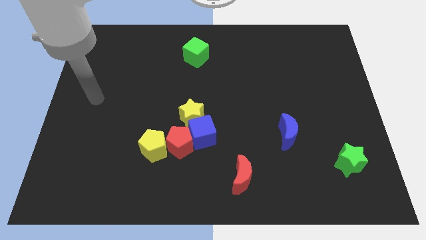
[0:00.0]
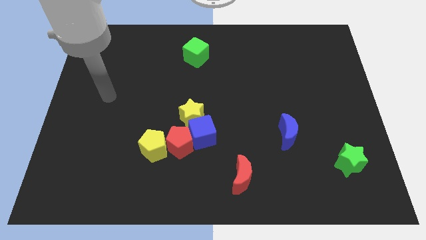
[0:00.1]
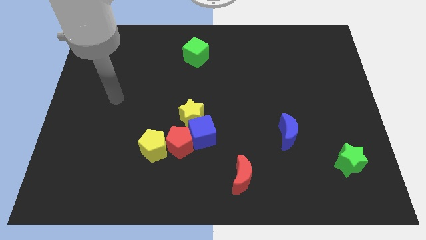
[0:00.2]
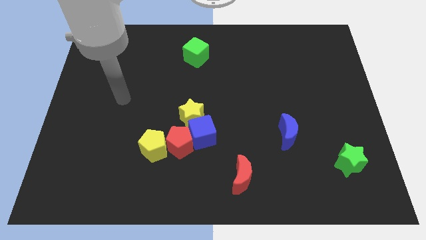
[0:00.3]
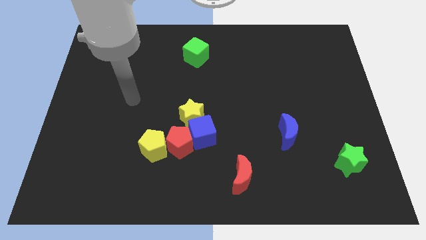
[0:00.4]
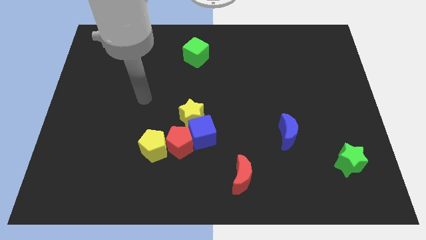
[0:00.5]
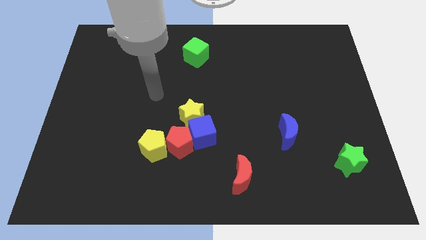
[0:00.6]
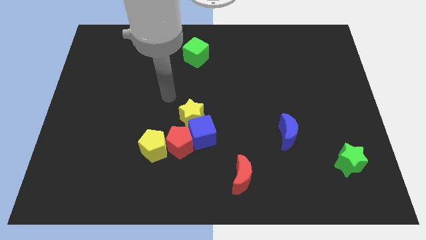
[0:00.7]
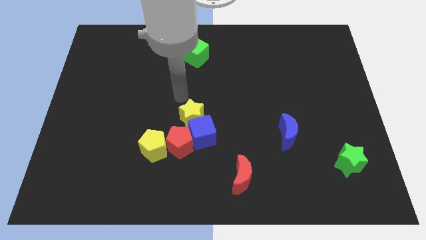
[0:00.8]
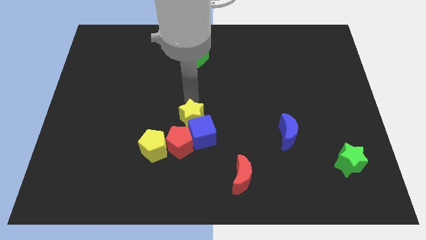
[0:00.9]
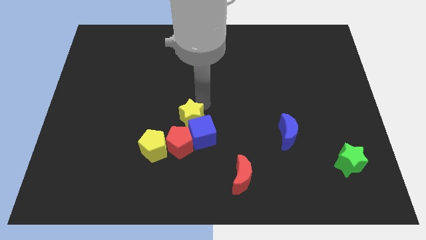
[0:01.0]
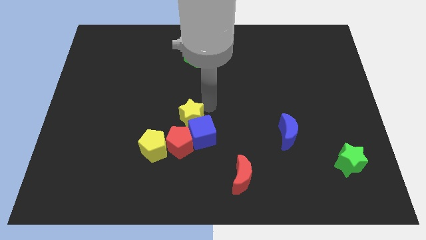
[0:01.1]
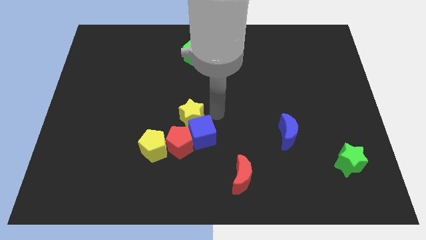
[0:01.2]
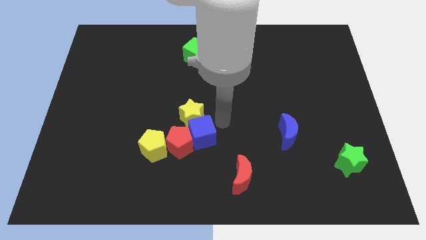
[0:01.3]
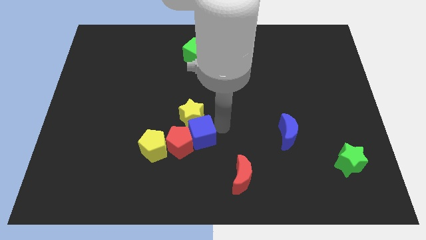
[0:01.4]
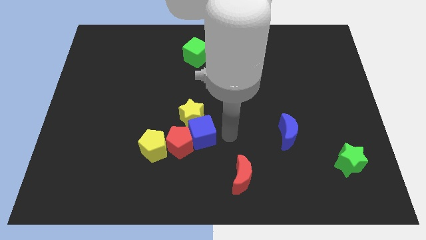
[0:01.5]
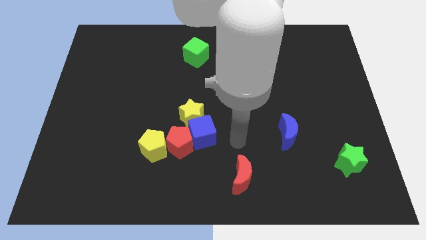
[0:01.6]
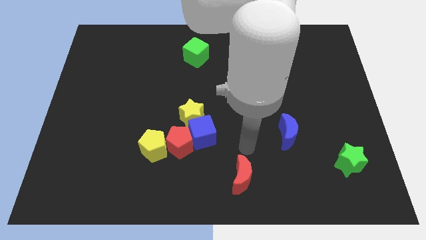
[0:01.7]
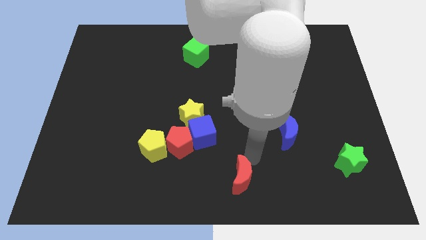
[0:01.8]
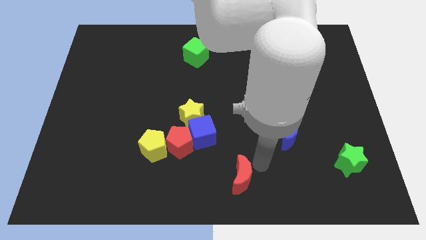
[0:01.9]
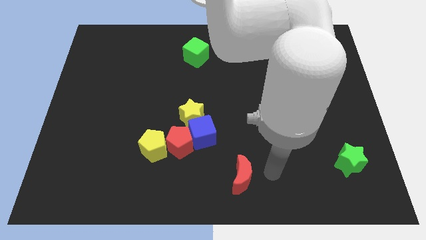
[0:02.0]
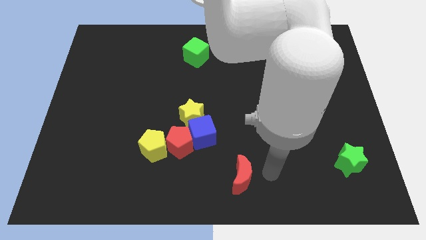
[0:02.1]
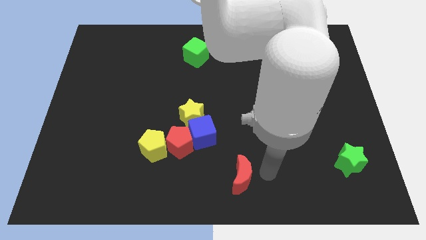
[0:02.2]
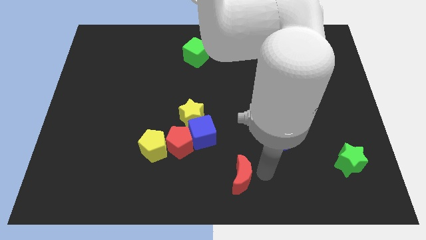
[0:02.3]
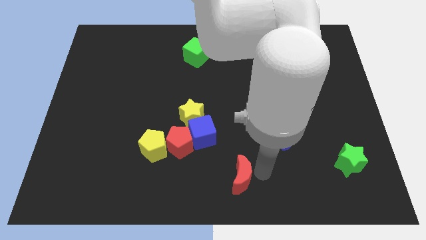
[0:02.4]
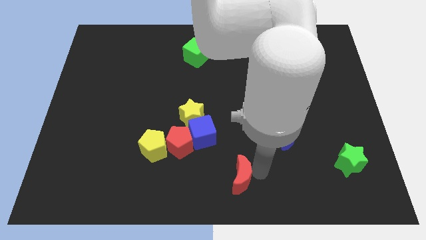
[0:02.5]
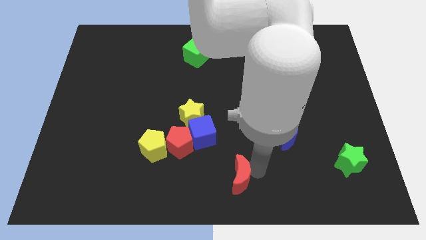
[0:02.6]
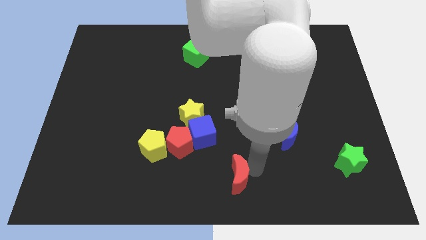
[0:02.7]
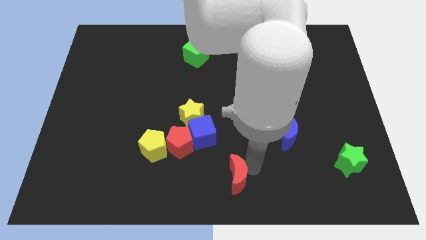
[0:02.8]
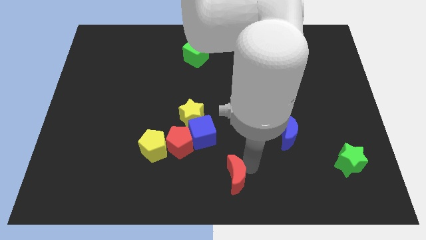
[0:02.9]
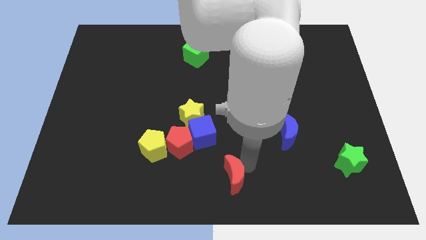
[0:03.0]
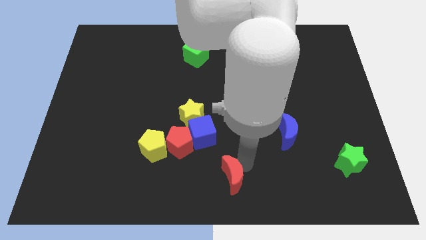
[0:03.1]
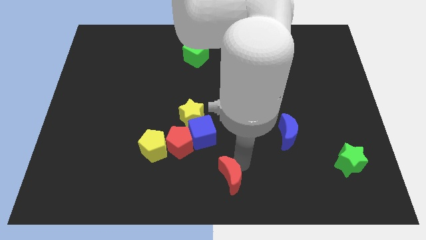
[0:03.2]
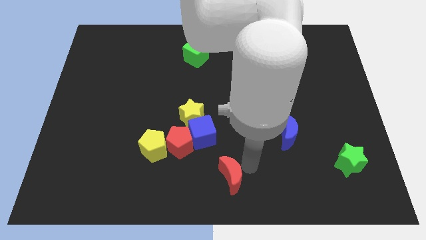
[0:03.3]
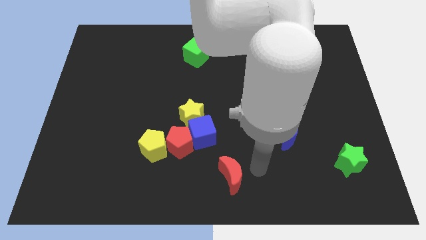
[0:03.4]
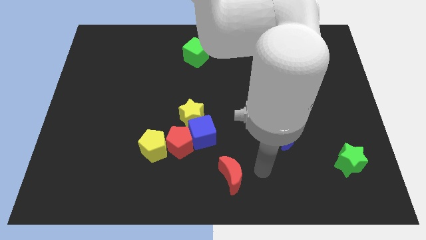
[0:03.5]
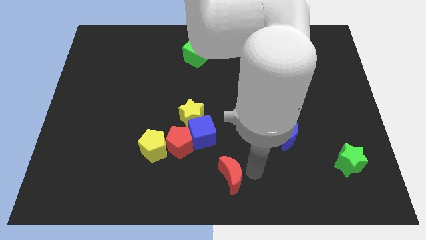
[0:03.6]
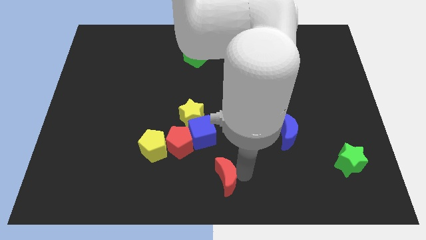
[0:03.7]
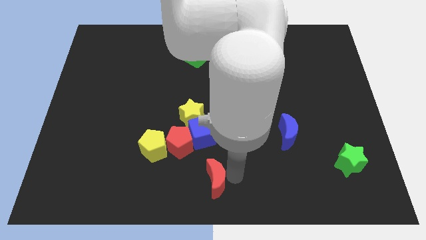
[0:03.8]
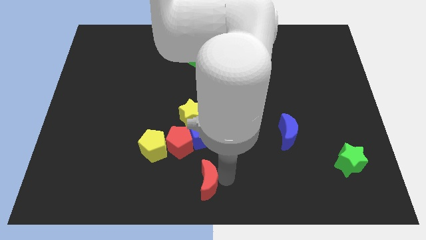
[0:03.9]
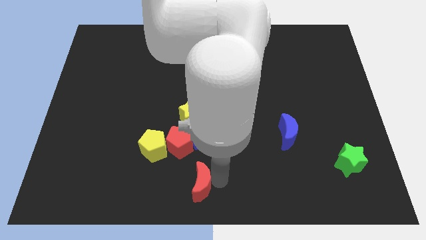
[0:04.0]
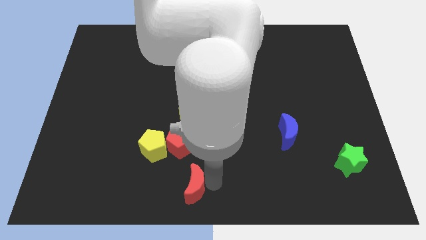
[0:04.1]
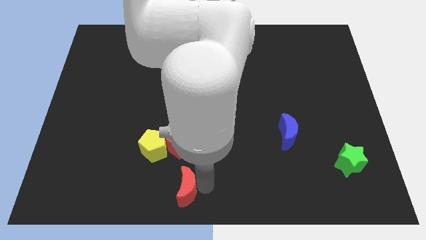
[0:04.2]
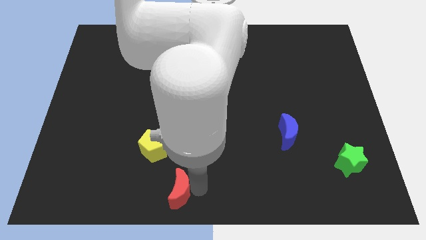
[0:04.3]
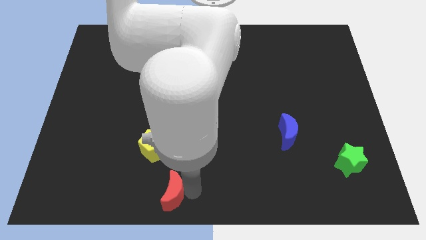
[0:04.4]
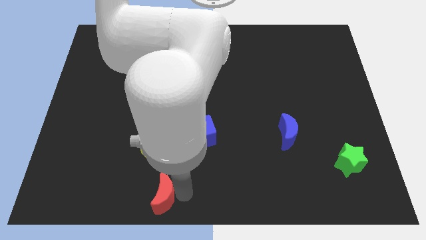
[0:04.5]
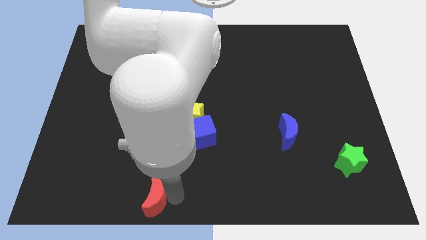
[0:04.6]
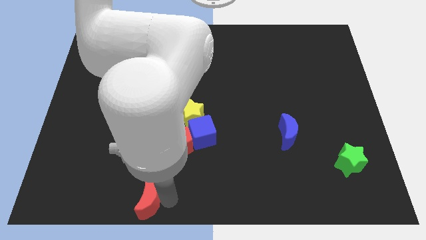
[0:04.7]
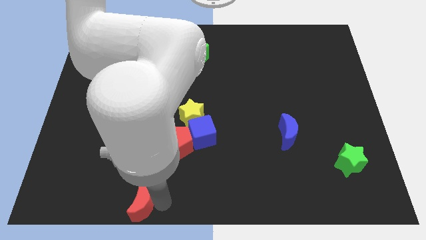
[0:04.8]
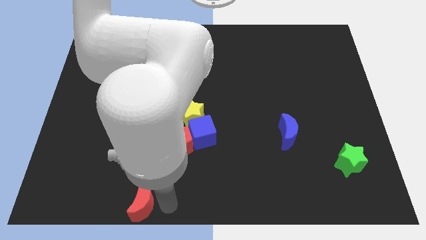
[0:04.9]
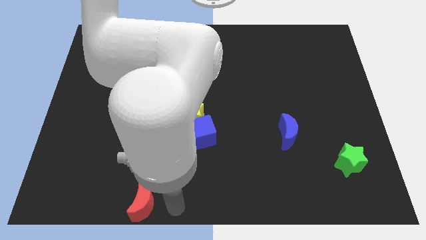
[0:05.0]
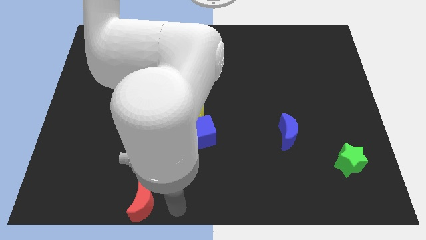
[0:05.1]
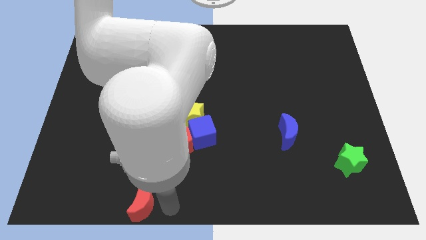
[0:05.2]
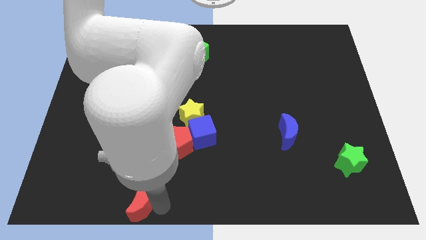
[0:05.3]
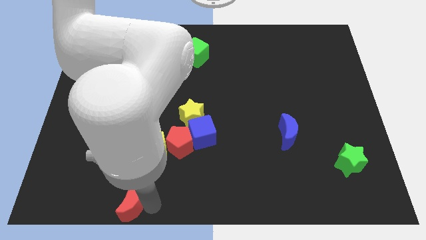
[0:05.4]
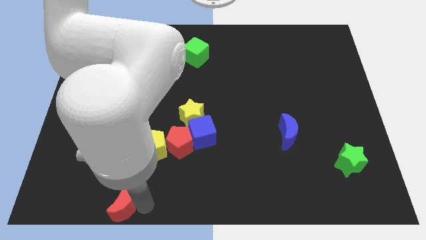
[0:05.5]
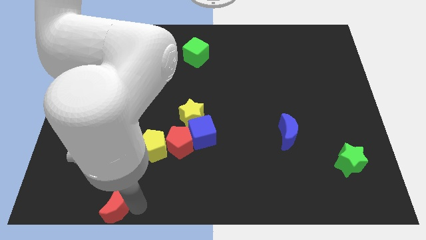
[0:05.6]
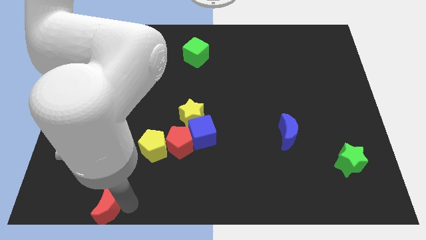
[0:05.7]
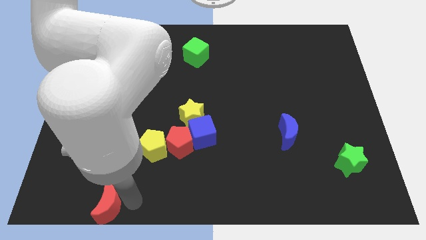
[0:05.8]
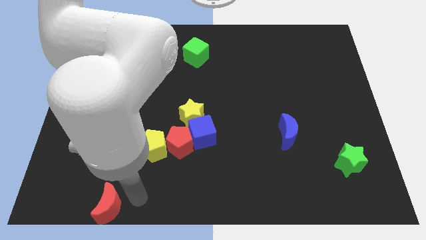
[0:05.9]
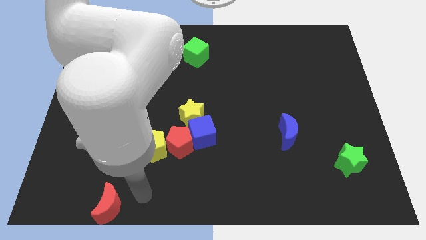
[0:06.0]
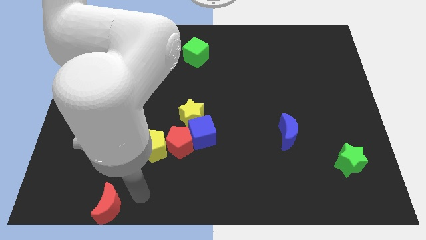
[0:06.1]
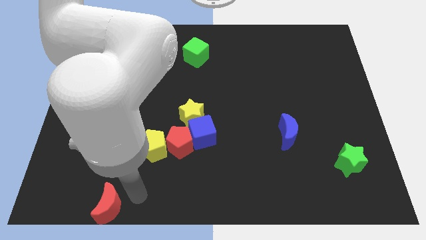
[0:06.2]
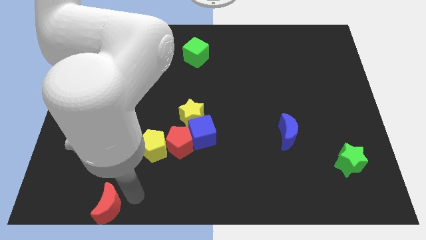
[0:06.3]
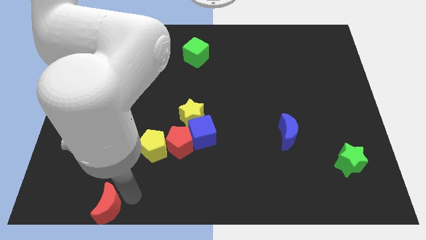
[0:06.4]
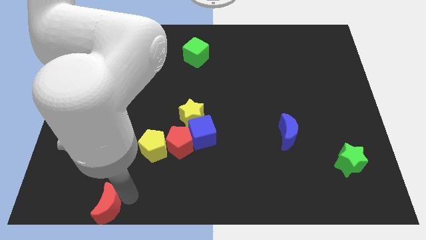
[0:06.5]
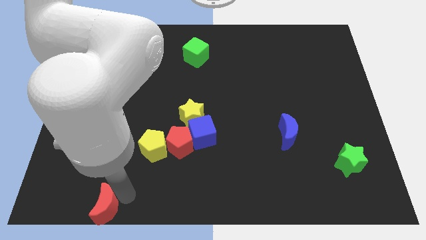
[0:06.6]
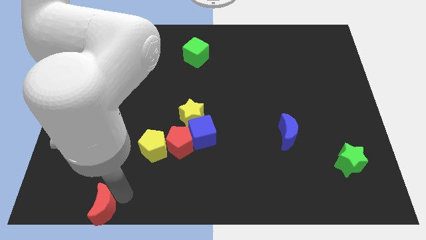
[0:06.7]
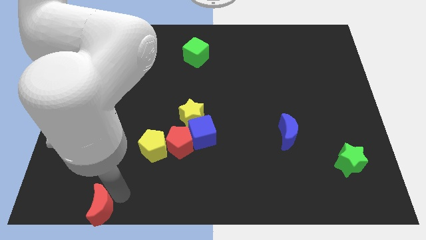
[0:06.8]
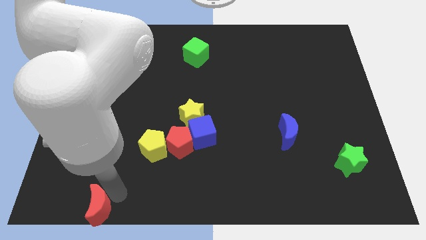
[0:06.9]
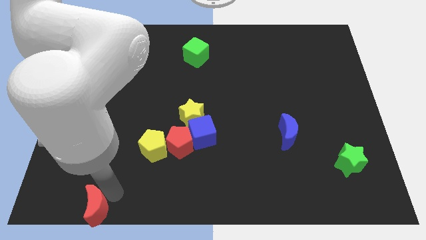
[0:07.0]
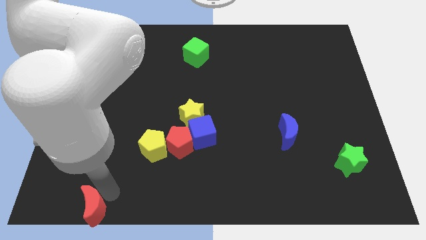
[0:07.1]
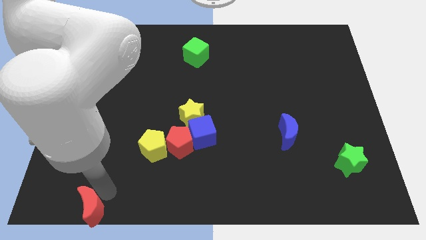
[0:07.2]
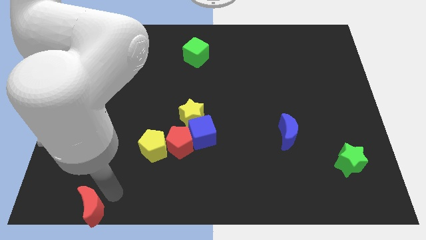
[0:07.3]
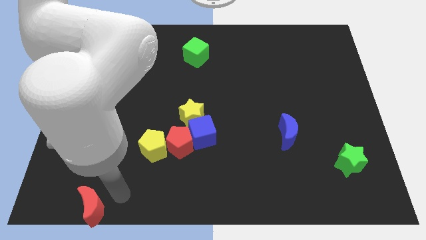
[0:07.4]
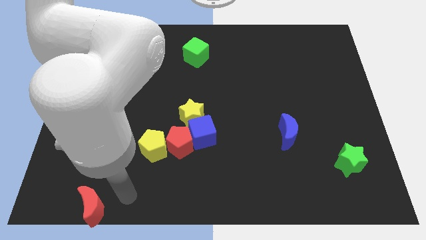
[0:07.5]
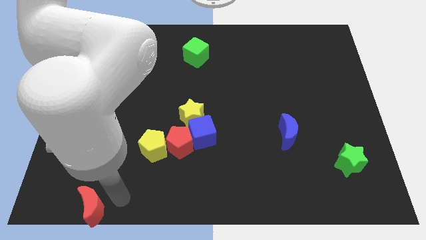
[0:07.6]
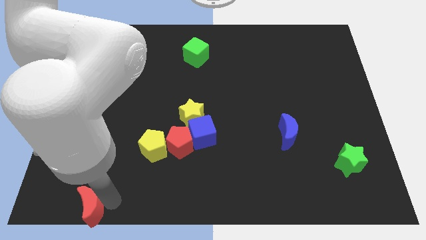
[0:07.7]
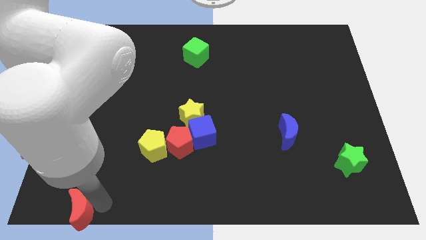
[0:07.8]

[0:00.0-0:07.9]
push the red moon to the lower left corner
